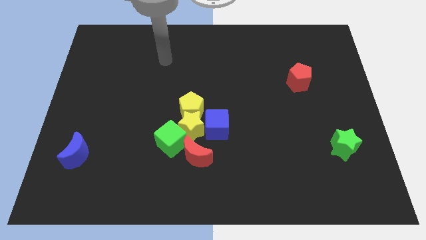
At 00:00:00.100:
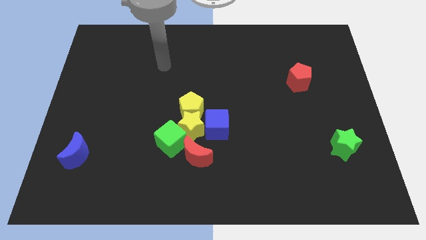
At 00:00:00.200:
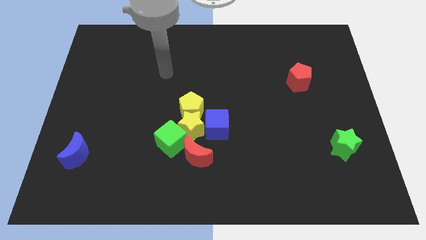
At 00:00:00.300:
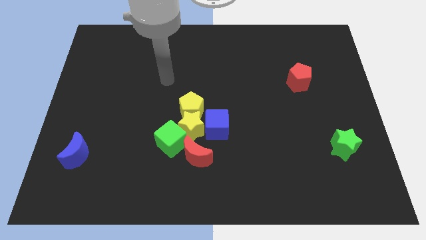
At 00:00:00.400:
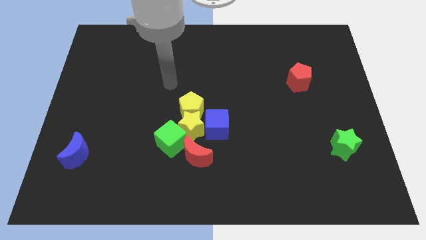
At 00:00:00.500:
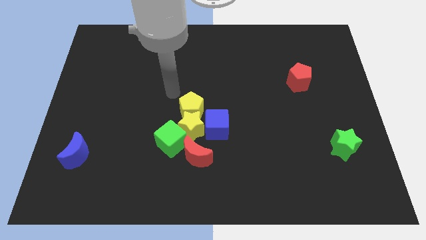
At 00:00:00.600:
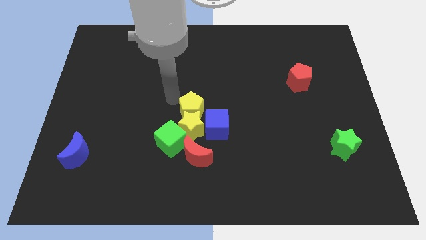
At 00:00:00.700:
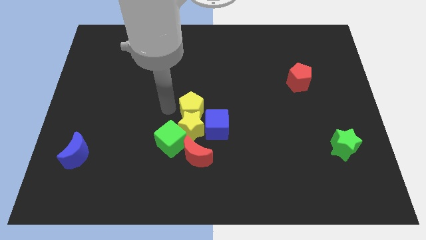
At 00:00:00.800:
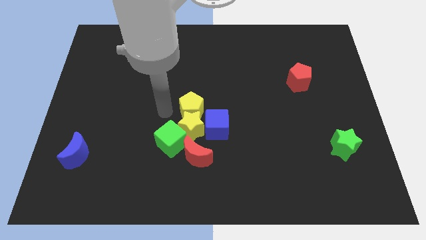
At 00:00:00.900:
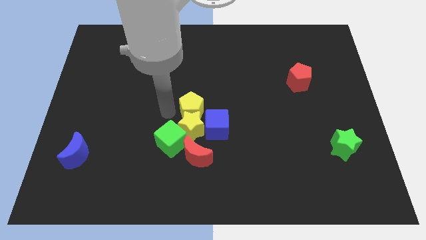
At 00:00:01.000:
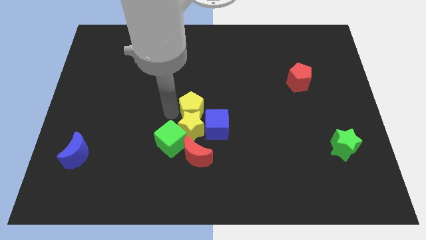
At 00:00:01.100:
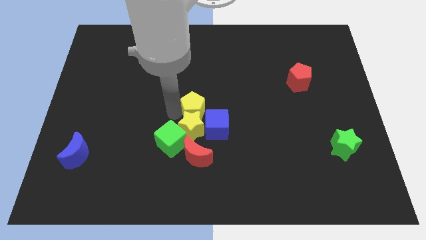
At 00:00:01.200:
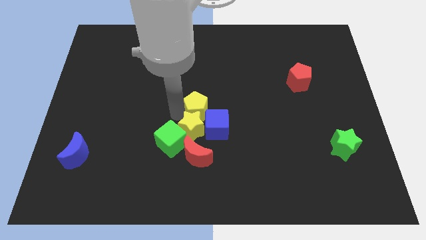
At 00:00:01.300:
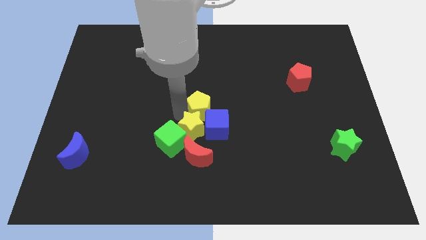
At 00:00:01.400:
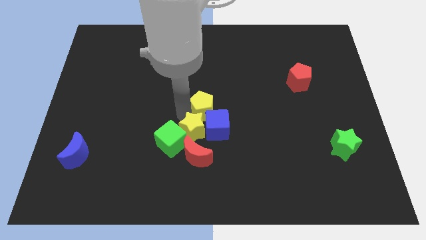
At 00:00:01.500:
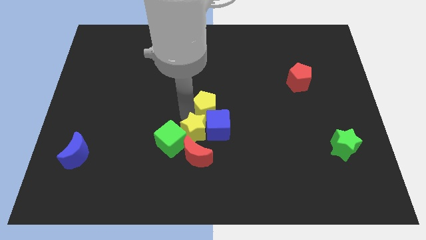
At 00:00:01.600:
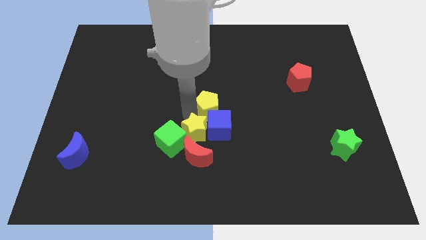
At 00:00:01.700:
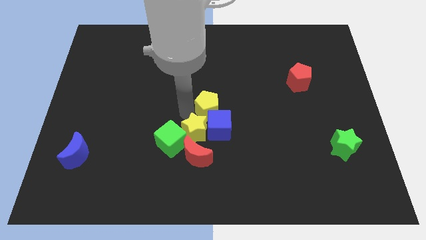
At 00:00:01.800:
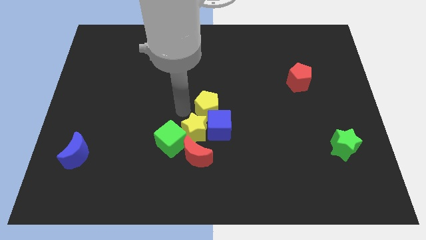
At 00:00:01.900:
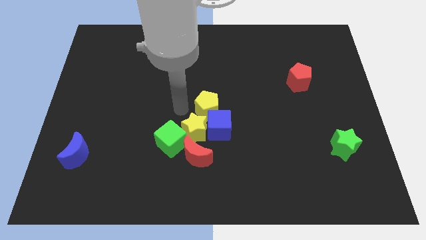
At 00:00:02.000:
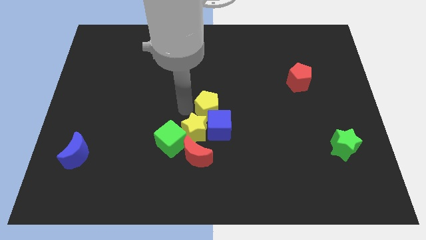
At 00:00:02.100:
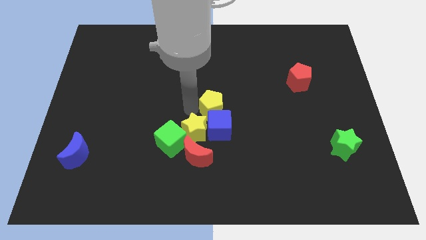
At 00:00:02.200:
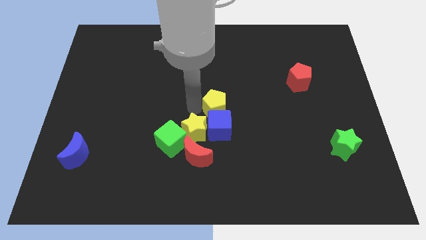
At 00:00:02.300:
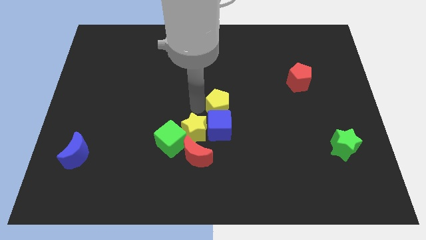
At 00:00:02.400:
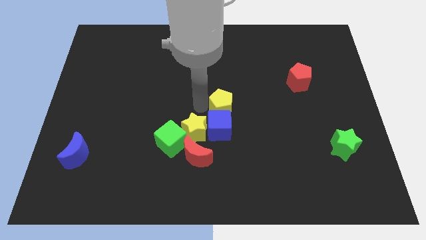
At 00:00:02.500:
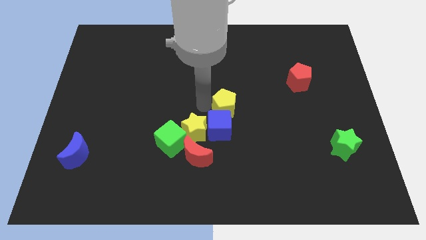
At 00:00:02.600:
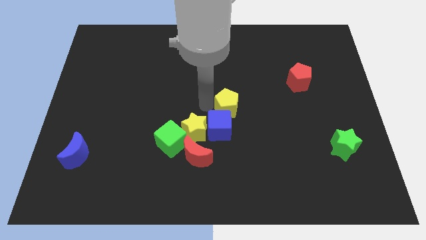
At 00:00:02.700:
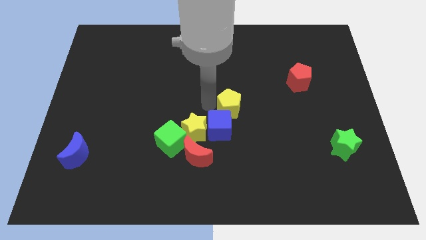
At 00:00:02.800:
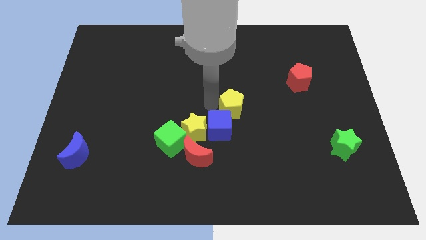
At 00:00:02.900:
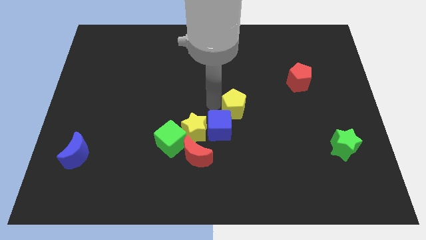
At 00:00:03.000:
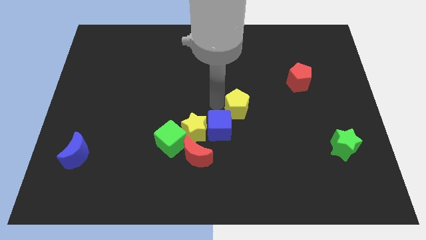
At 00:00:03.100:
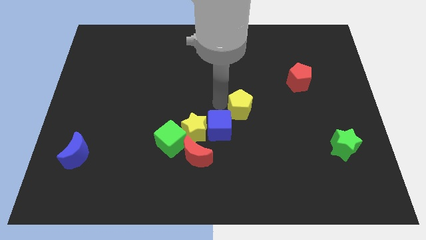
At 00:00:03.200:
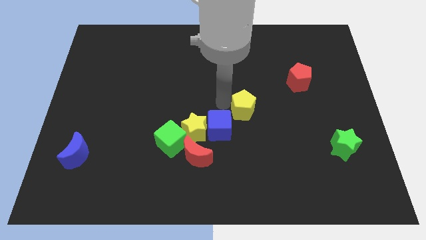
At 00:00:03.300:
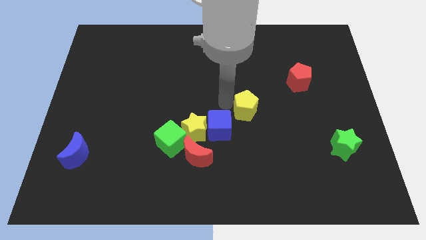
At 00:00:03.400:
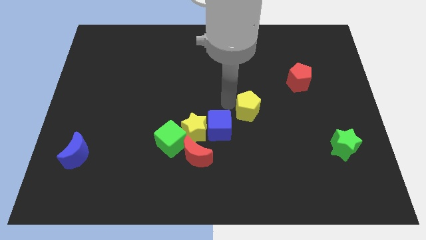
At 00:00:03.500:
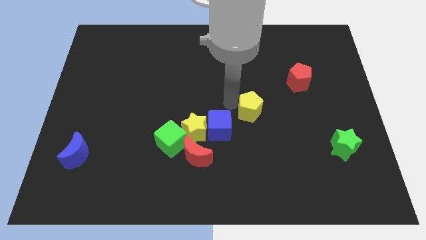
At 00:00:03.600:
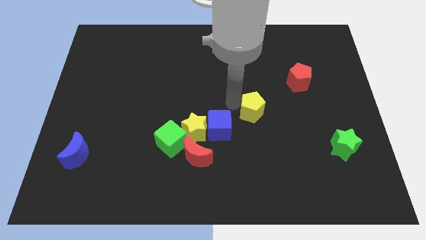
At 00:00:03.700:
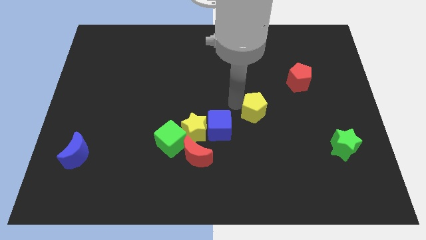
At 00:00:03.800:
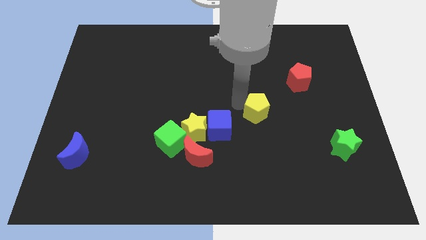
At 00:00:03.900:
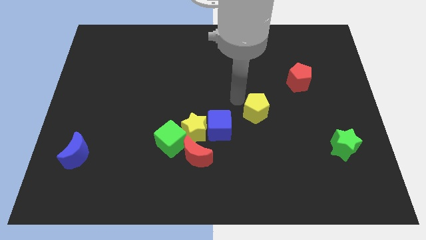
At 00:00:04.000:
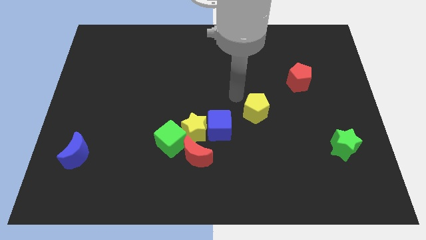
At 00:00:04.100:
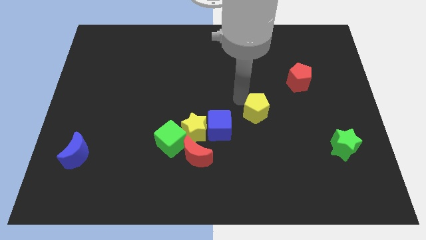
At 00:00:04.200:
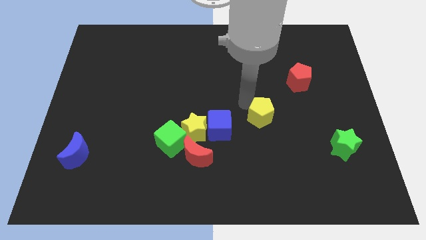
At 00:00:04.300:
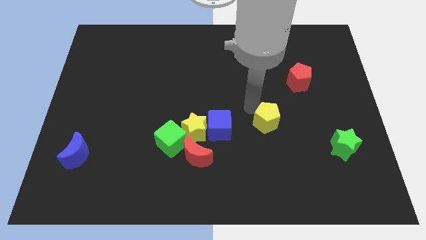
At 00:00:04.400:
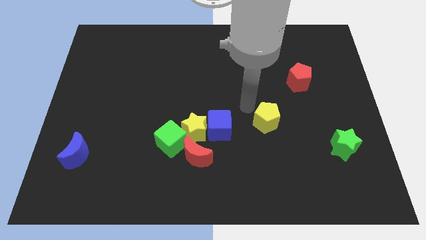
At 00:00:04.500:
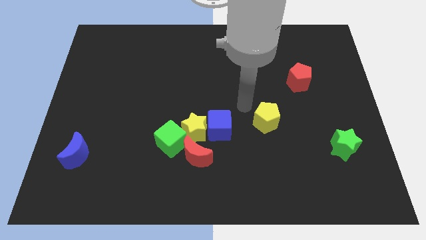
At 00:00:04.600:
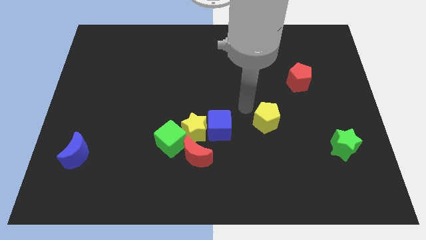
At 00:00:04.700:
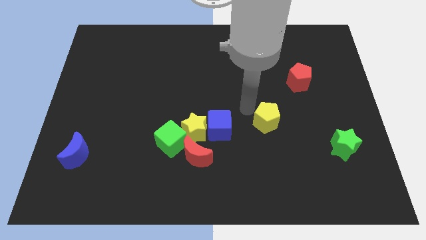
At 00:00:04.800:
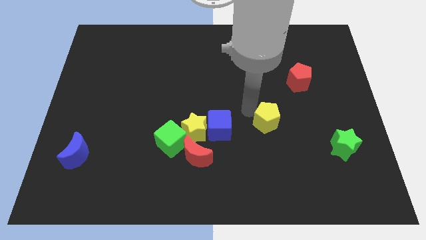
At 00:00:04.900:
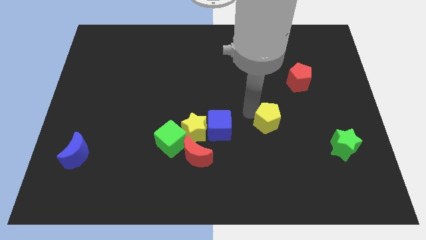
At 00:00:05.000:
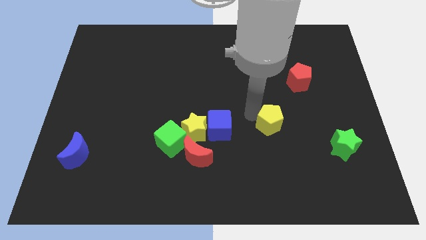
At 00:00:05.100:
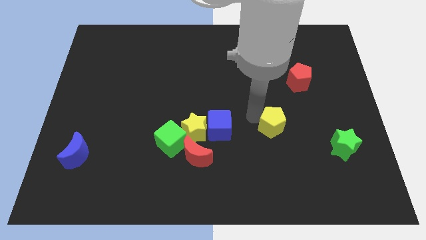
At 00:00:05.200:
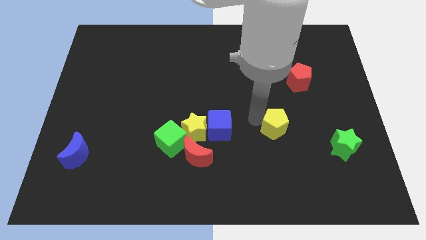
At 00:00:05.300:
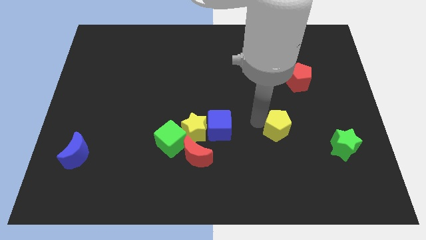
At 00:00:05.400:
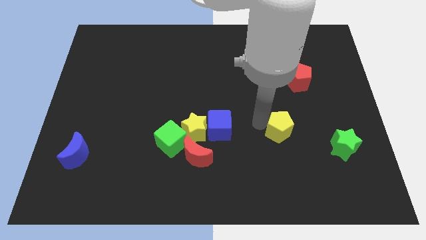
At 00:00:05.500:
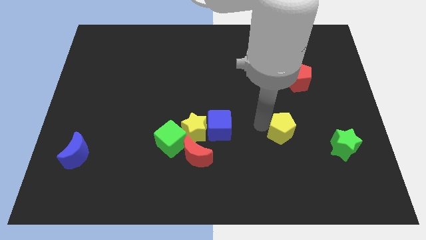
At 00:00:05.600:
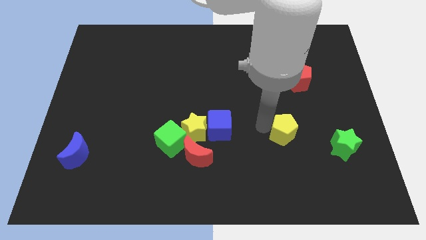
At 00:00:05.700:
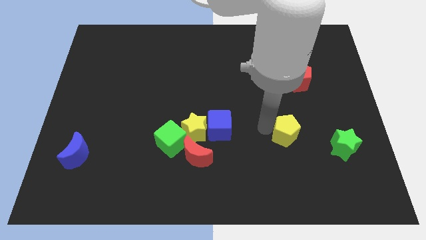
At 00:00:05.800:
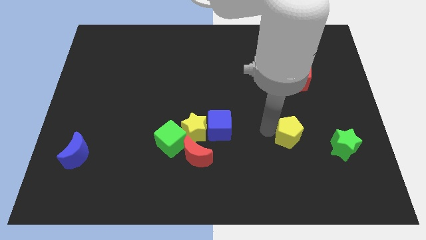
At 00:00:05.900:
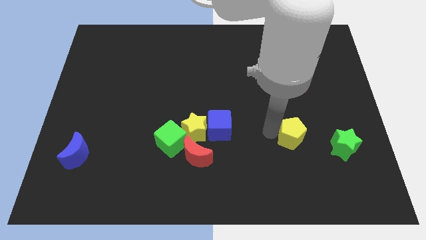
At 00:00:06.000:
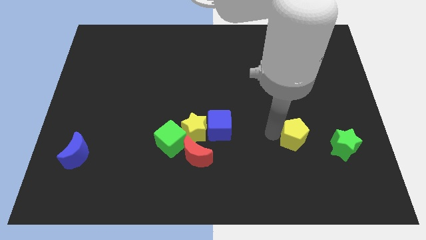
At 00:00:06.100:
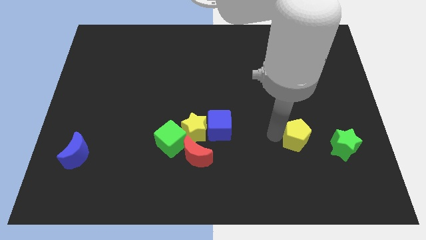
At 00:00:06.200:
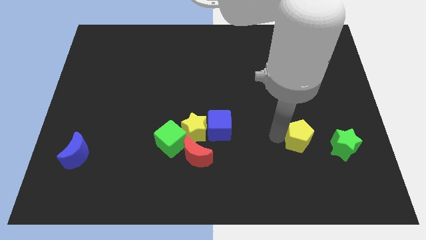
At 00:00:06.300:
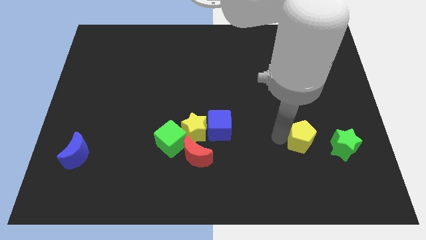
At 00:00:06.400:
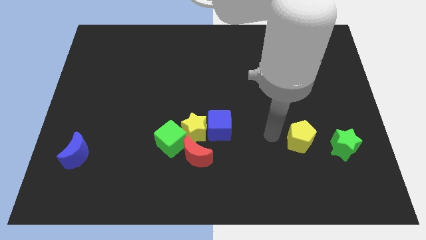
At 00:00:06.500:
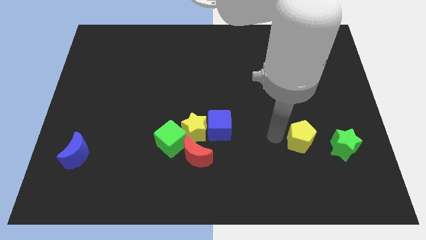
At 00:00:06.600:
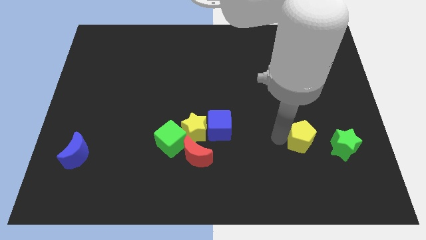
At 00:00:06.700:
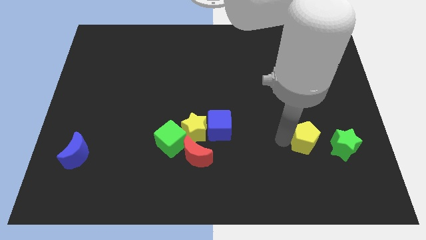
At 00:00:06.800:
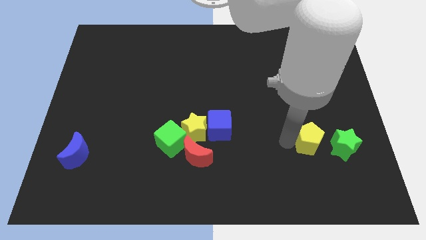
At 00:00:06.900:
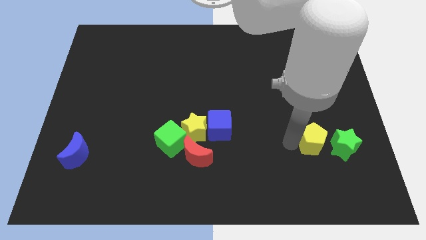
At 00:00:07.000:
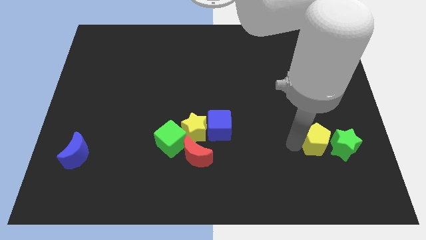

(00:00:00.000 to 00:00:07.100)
slide the yellow pentagon to the green star
